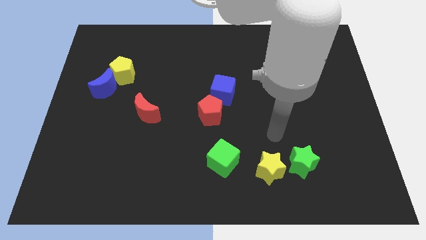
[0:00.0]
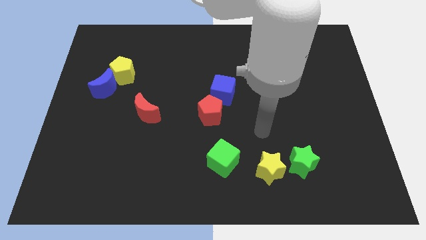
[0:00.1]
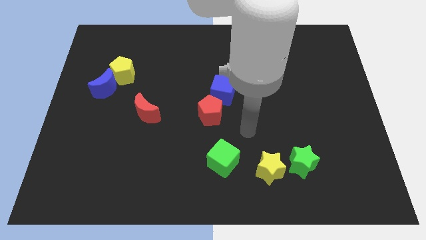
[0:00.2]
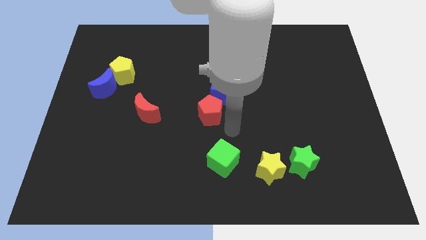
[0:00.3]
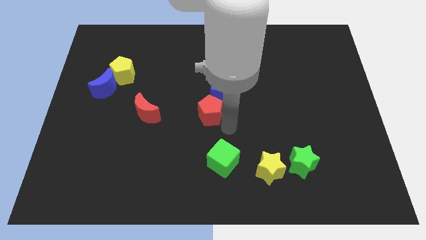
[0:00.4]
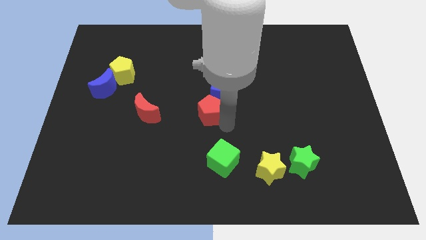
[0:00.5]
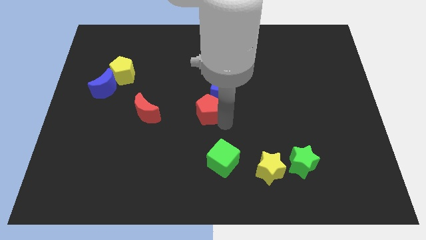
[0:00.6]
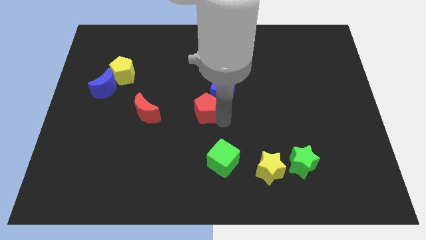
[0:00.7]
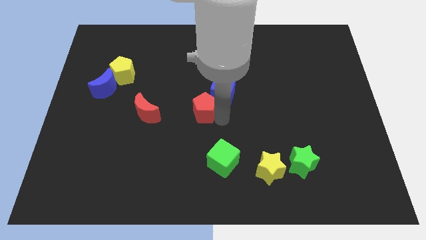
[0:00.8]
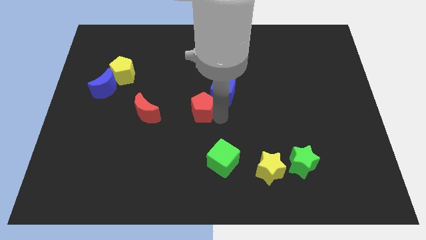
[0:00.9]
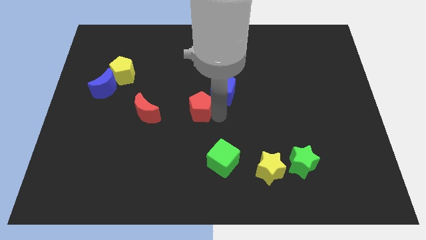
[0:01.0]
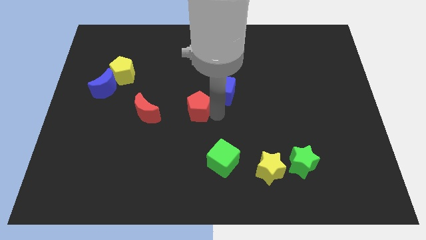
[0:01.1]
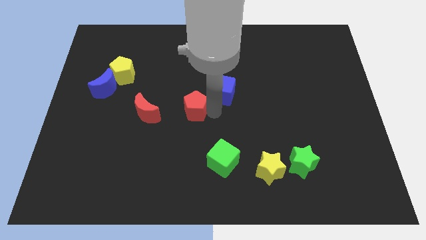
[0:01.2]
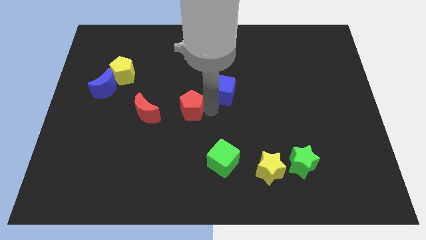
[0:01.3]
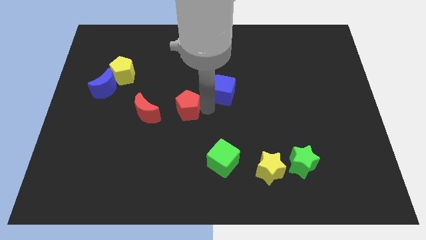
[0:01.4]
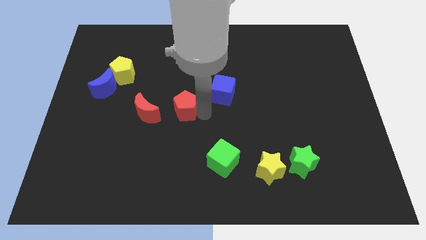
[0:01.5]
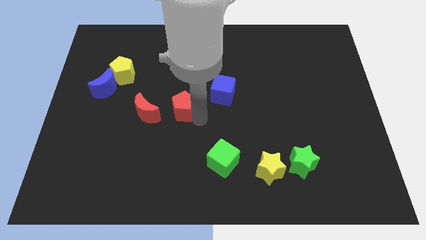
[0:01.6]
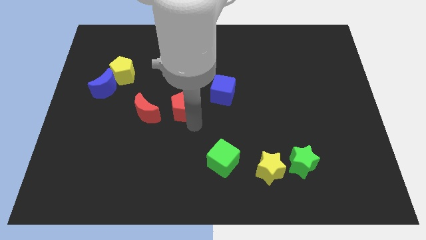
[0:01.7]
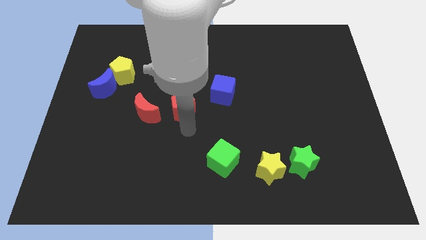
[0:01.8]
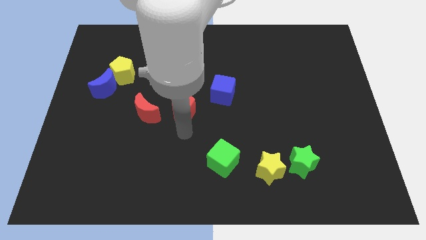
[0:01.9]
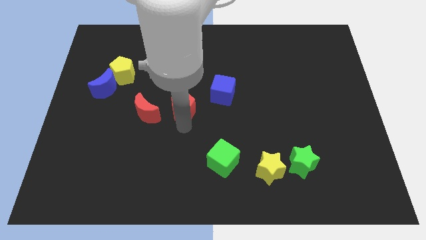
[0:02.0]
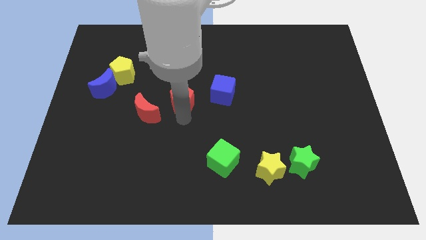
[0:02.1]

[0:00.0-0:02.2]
push the red pentagon a bit up and then to the left

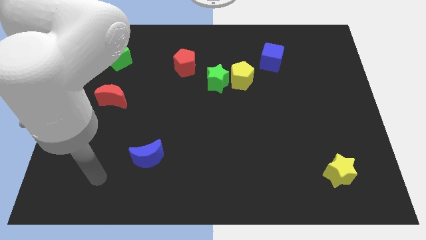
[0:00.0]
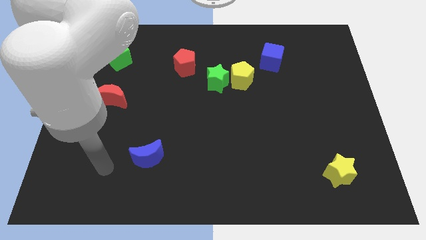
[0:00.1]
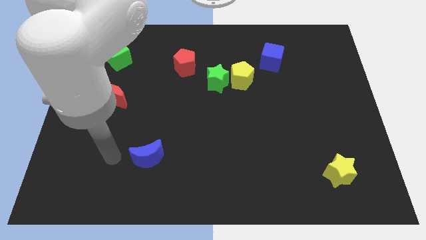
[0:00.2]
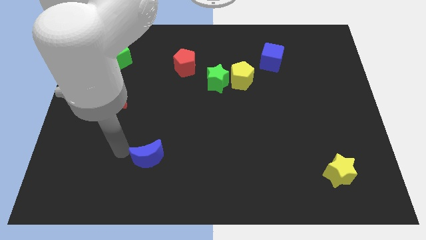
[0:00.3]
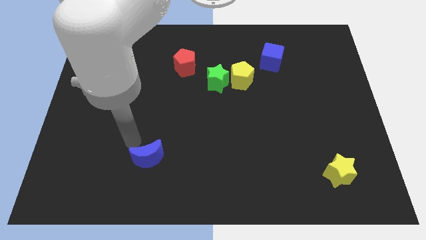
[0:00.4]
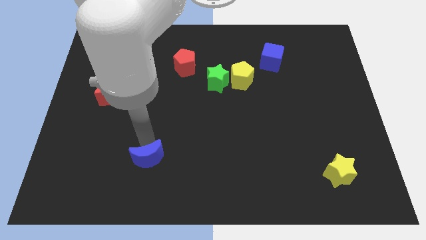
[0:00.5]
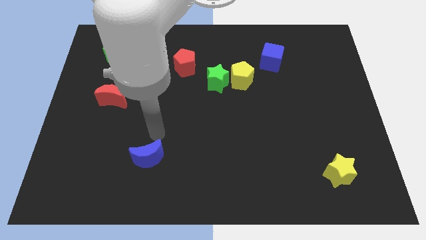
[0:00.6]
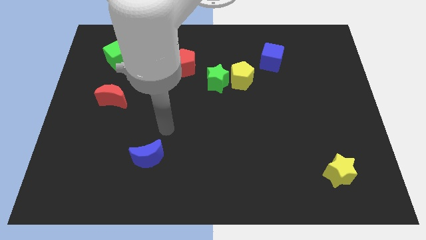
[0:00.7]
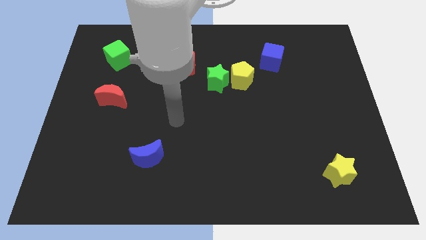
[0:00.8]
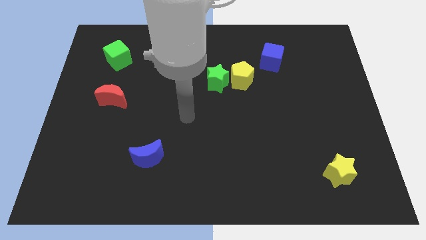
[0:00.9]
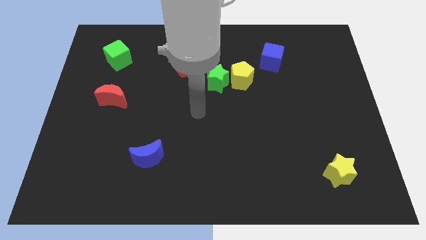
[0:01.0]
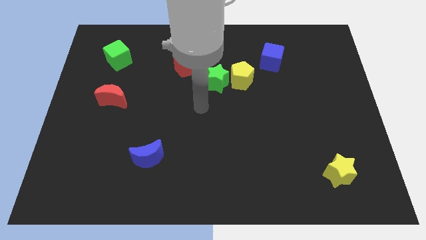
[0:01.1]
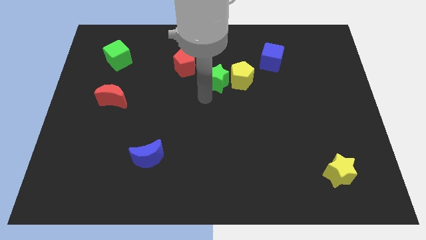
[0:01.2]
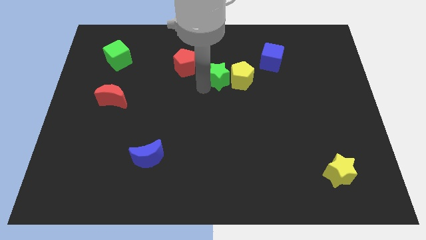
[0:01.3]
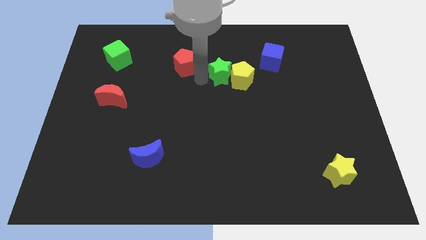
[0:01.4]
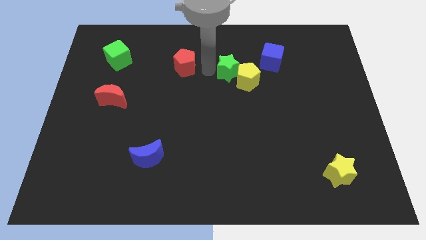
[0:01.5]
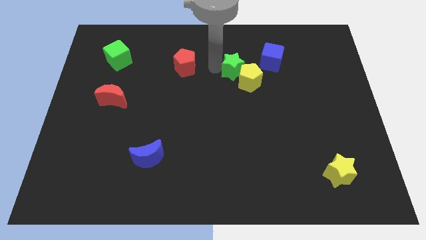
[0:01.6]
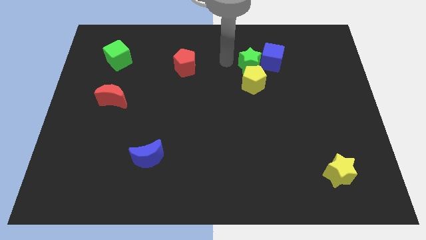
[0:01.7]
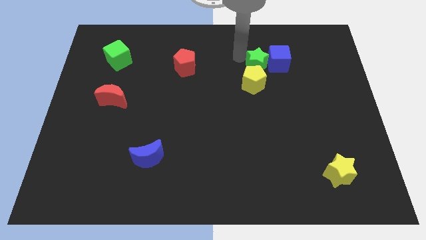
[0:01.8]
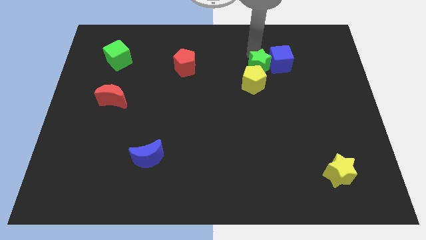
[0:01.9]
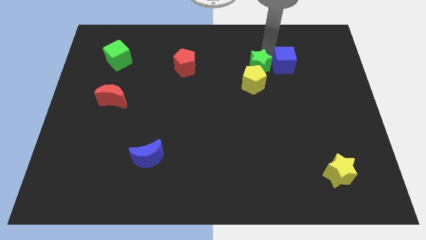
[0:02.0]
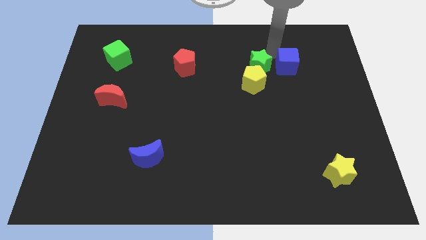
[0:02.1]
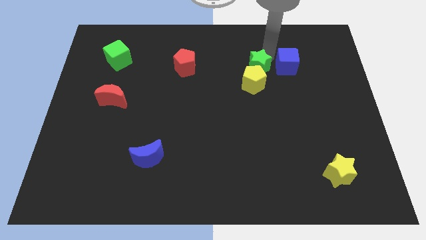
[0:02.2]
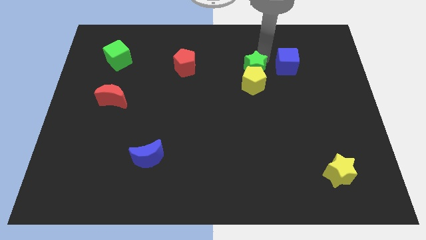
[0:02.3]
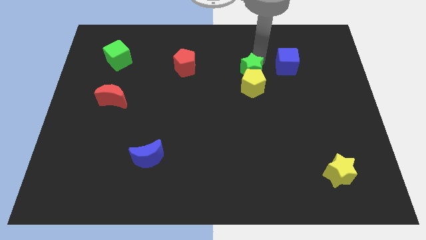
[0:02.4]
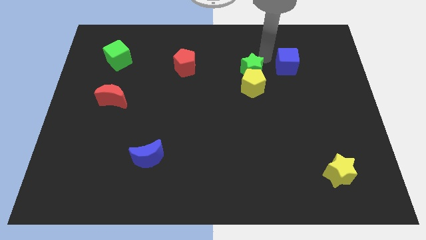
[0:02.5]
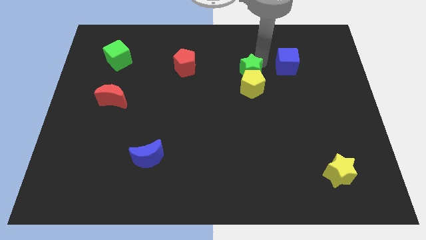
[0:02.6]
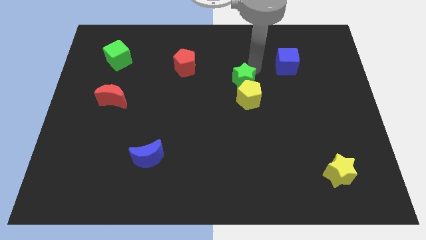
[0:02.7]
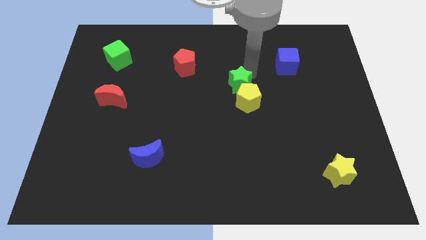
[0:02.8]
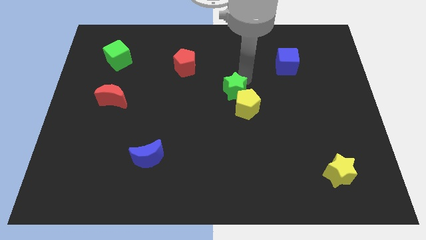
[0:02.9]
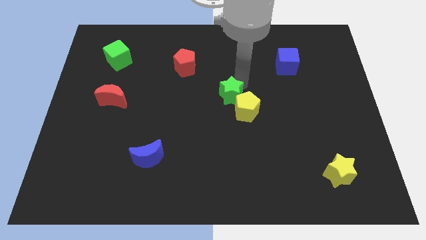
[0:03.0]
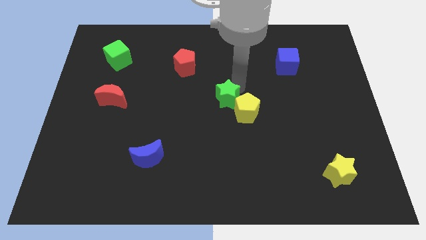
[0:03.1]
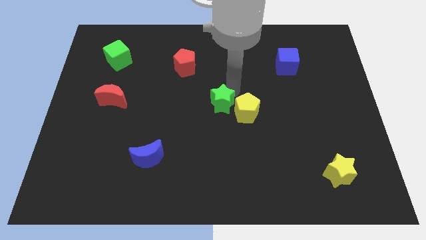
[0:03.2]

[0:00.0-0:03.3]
slightly slide the green star downwards

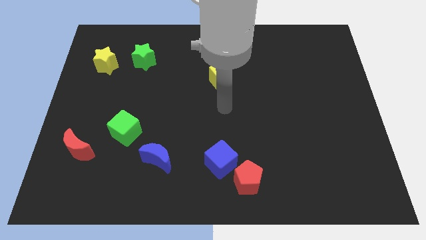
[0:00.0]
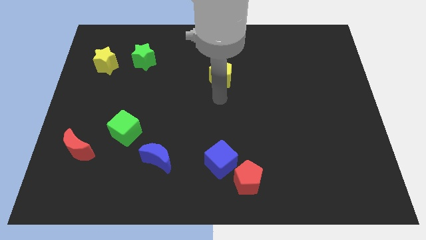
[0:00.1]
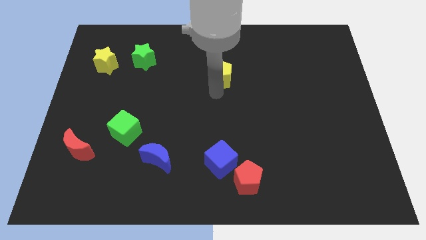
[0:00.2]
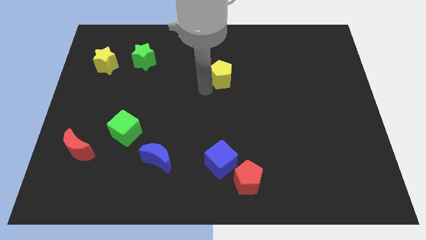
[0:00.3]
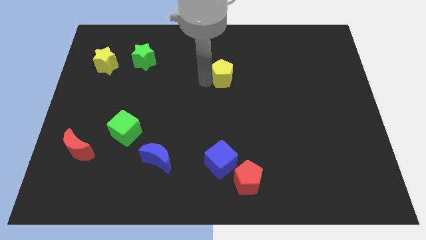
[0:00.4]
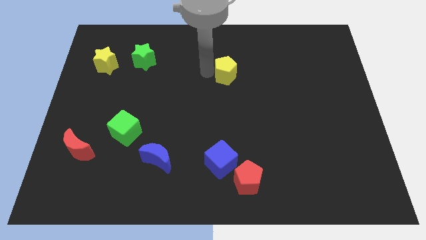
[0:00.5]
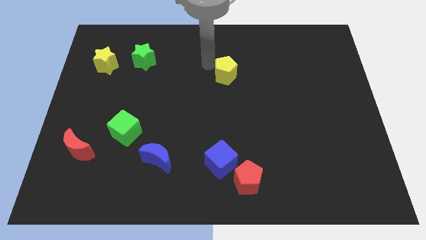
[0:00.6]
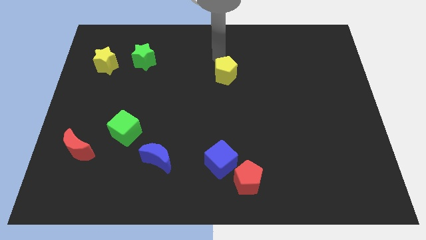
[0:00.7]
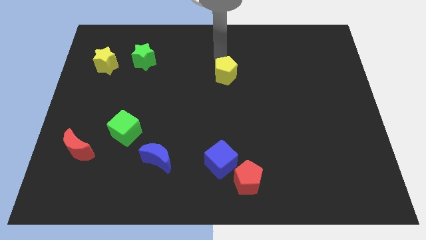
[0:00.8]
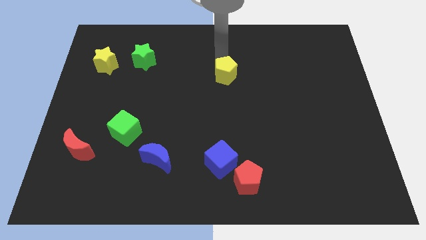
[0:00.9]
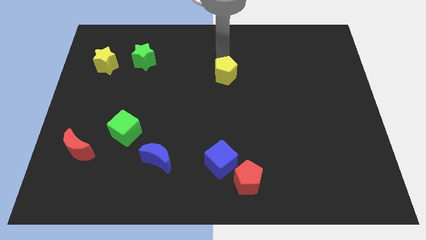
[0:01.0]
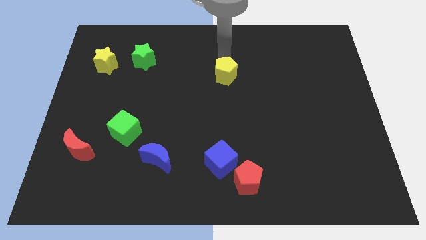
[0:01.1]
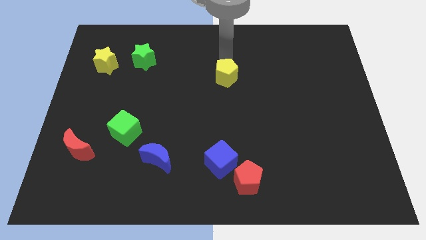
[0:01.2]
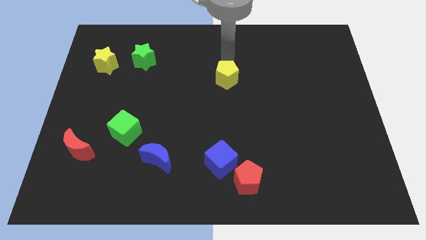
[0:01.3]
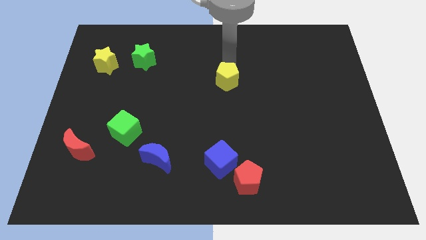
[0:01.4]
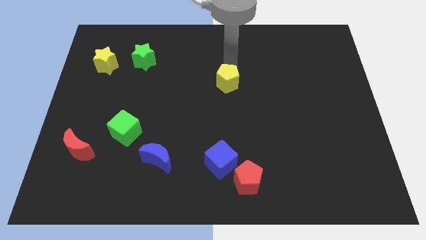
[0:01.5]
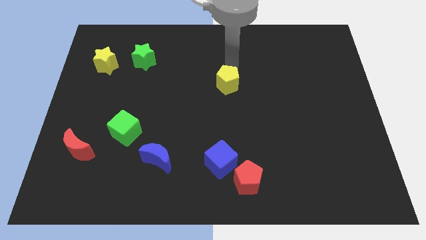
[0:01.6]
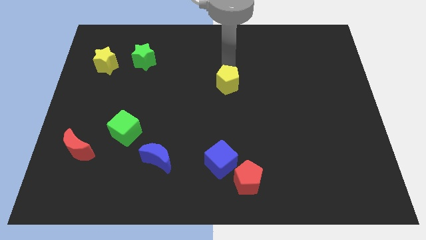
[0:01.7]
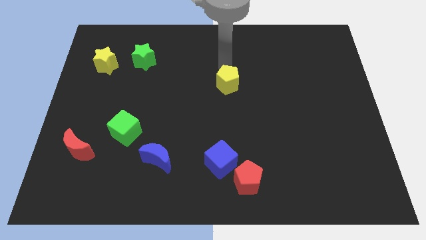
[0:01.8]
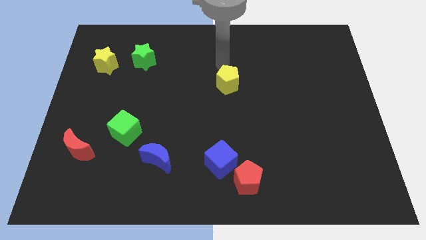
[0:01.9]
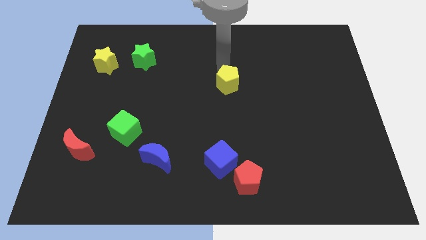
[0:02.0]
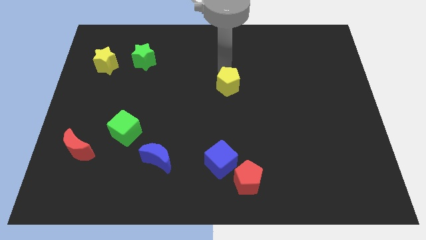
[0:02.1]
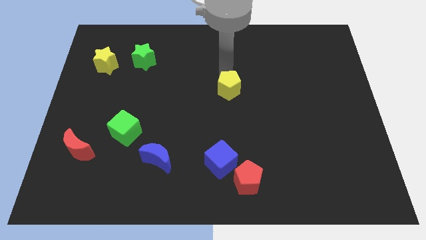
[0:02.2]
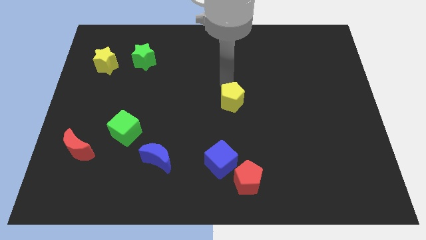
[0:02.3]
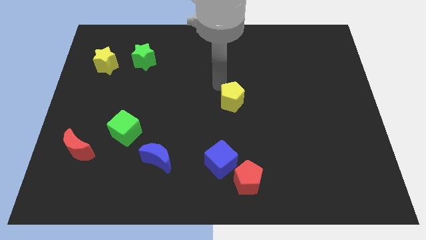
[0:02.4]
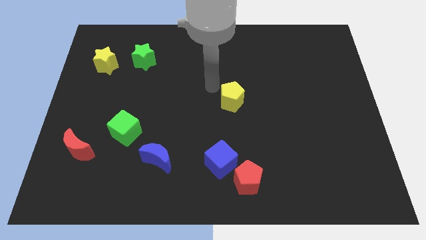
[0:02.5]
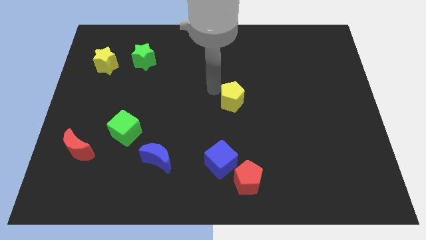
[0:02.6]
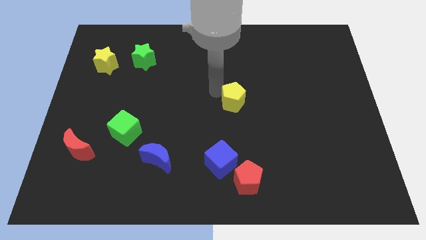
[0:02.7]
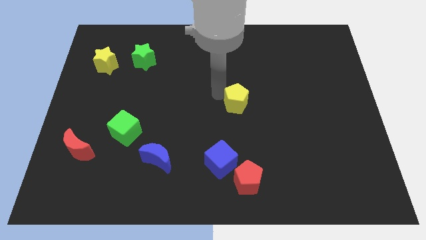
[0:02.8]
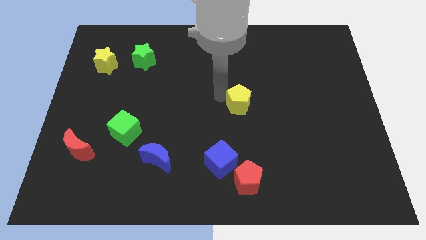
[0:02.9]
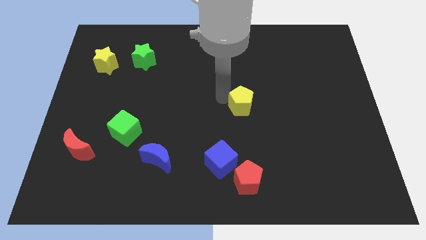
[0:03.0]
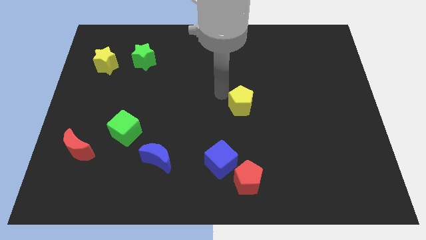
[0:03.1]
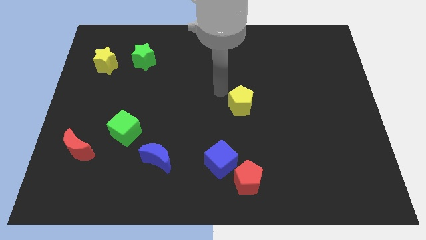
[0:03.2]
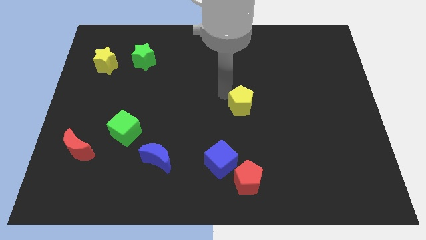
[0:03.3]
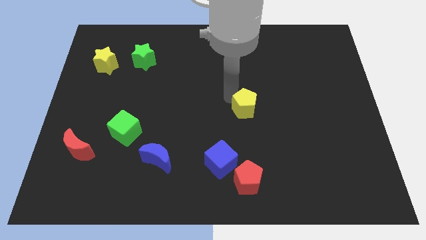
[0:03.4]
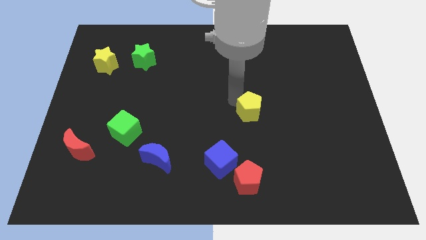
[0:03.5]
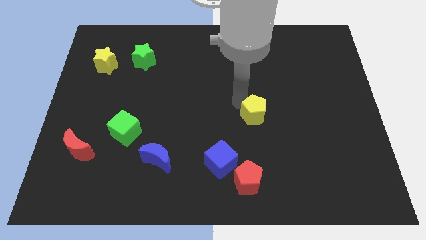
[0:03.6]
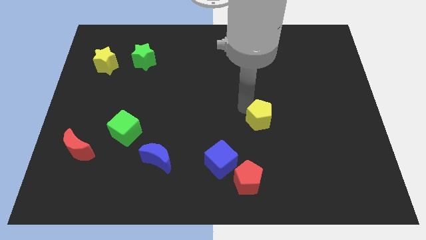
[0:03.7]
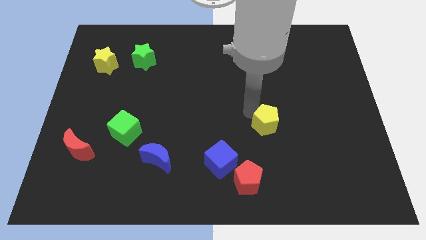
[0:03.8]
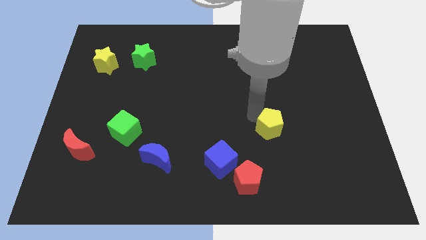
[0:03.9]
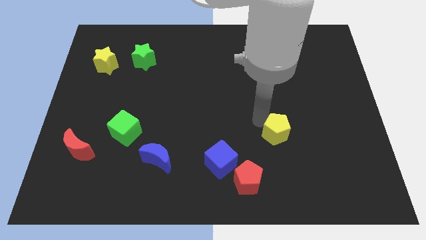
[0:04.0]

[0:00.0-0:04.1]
slide the yellow pentagon down and then to the right
